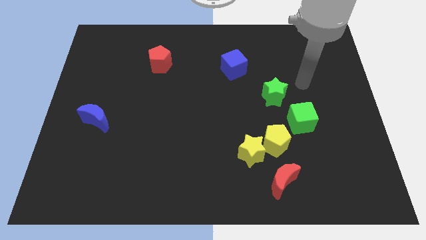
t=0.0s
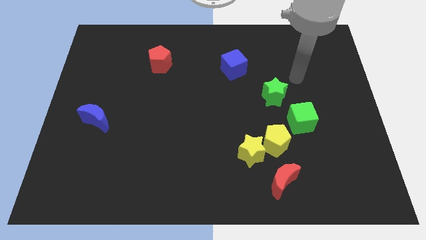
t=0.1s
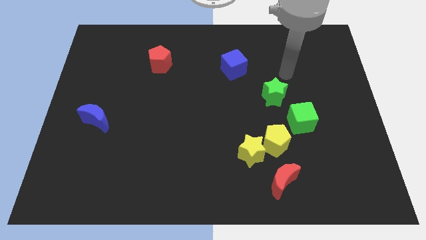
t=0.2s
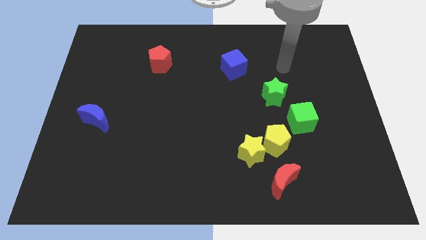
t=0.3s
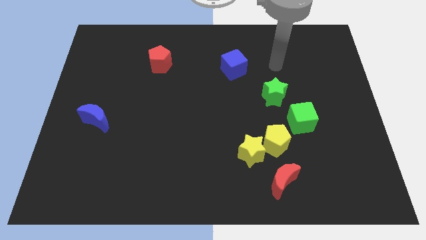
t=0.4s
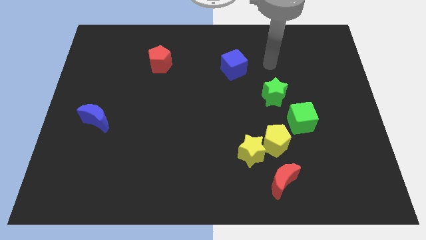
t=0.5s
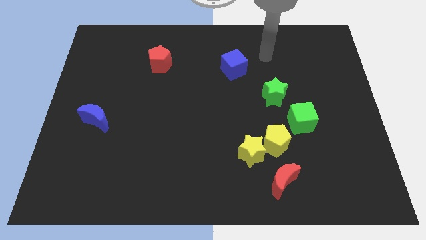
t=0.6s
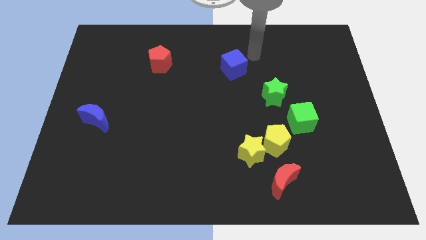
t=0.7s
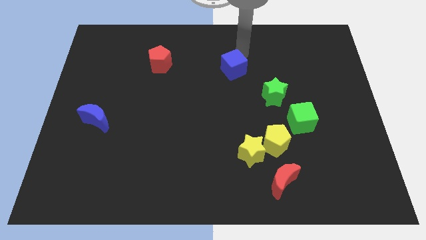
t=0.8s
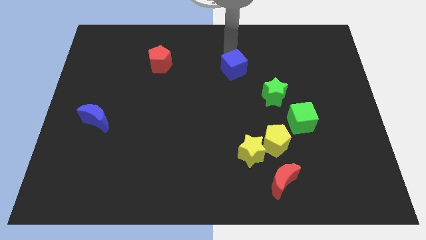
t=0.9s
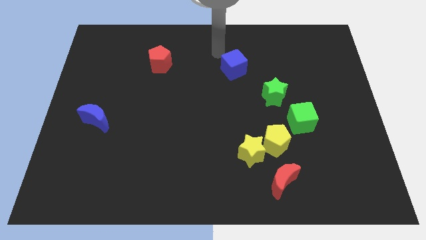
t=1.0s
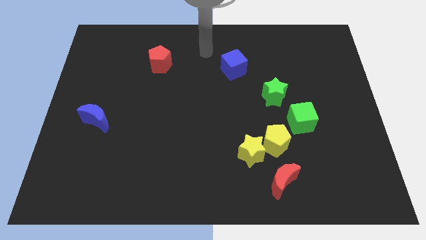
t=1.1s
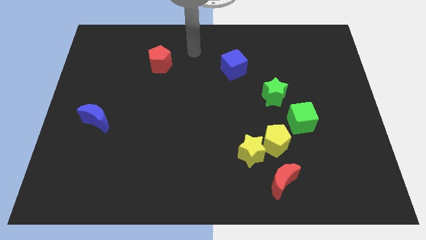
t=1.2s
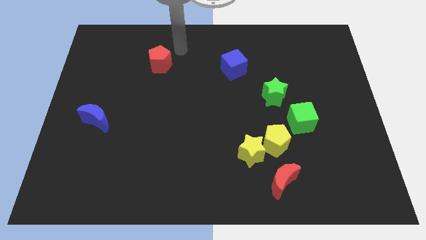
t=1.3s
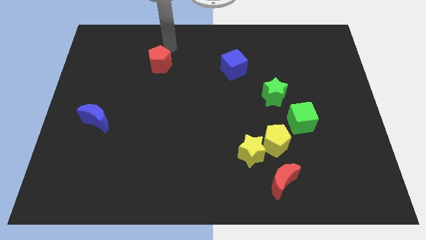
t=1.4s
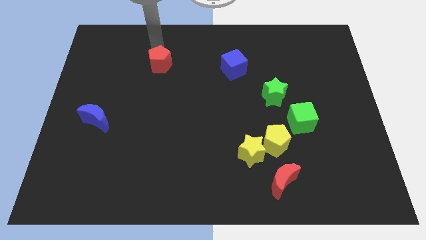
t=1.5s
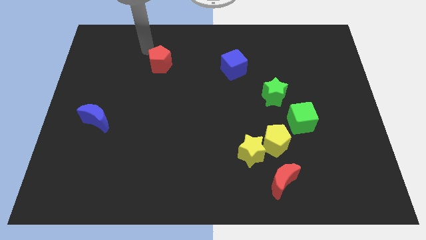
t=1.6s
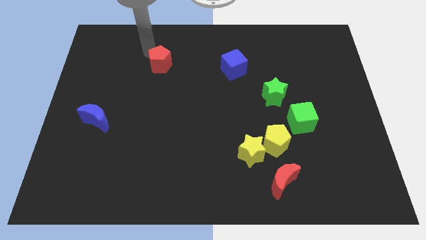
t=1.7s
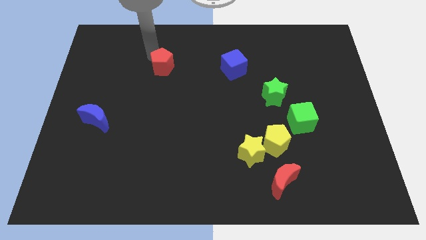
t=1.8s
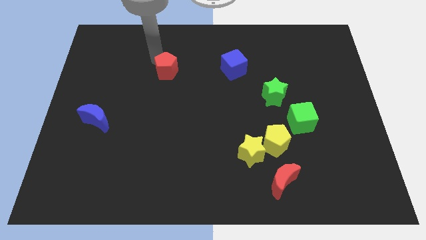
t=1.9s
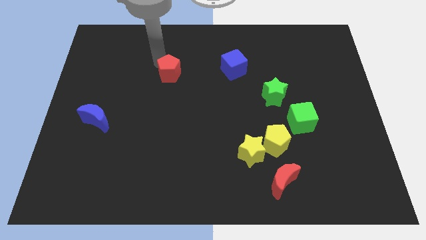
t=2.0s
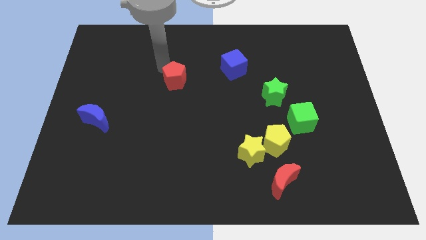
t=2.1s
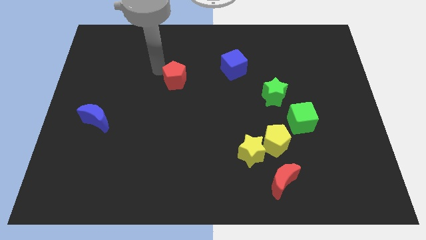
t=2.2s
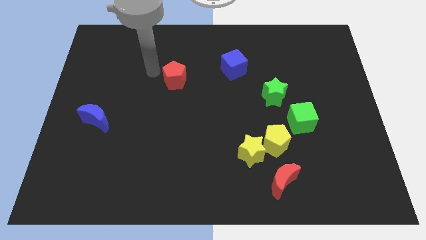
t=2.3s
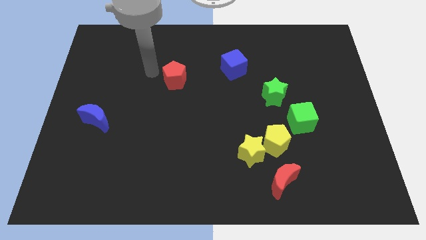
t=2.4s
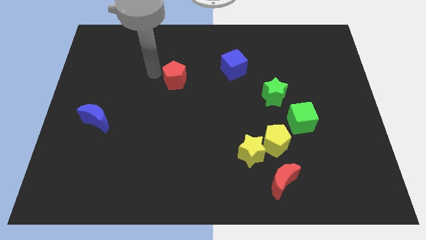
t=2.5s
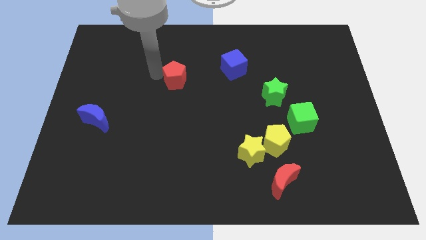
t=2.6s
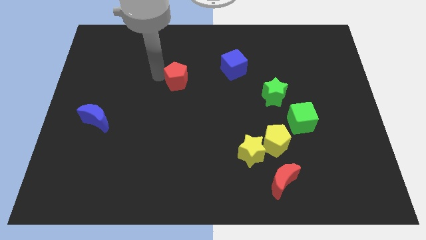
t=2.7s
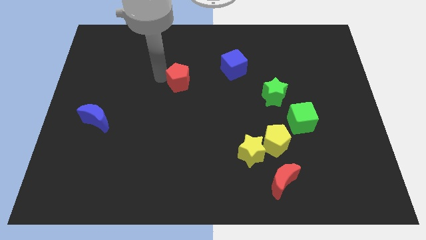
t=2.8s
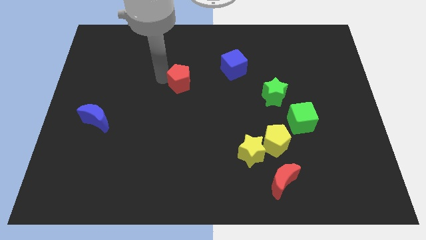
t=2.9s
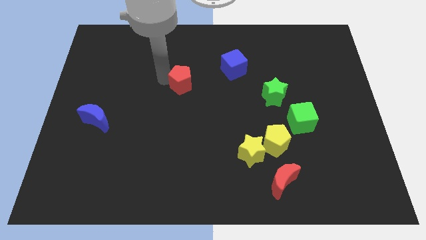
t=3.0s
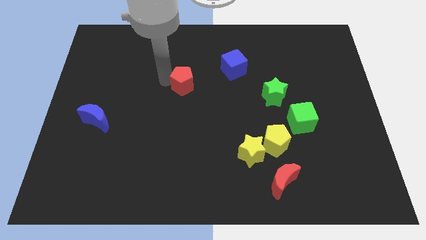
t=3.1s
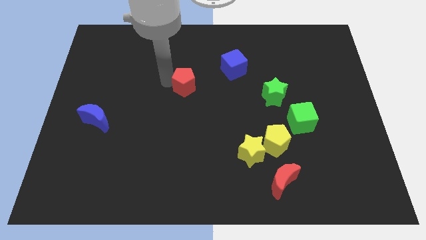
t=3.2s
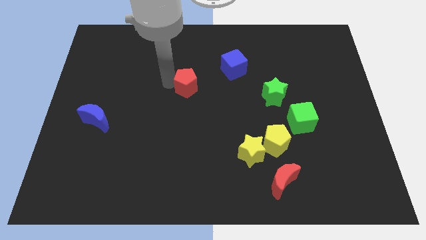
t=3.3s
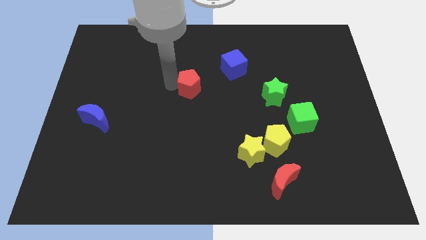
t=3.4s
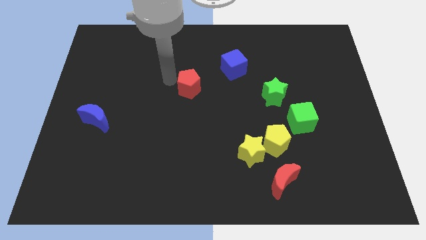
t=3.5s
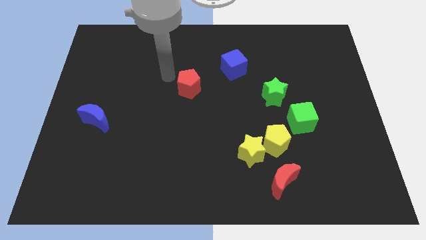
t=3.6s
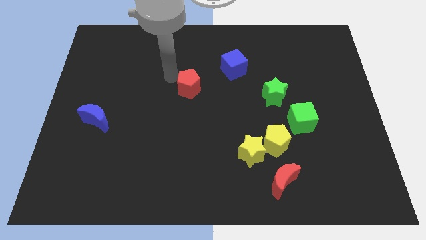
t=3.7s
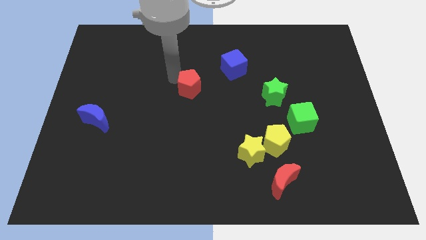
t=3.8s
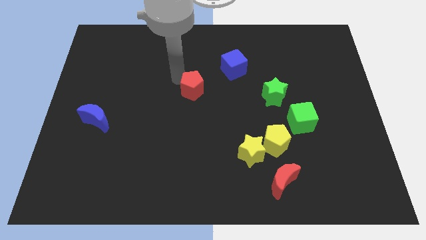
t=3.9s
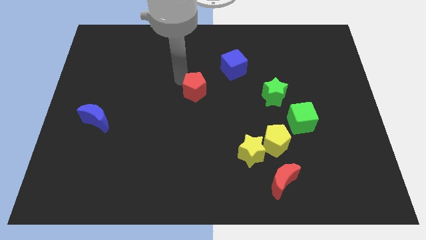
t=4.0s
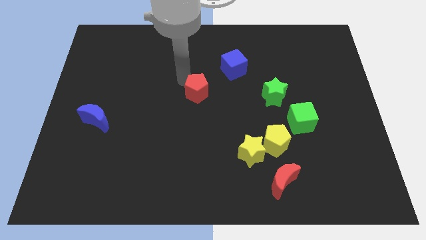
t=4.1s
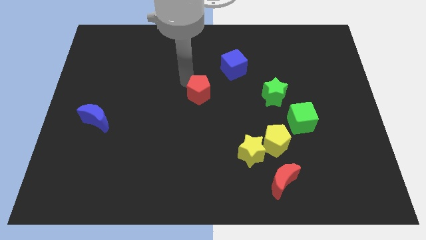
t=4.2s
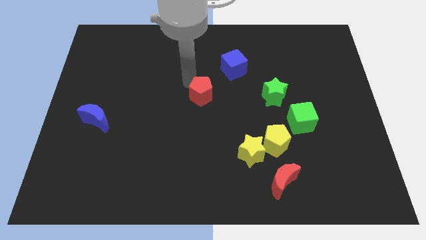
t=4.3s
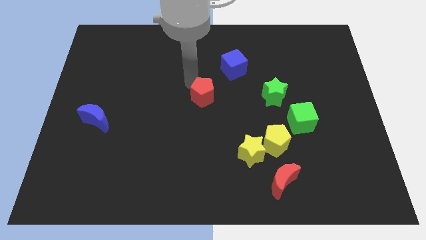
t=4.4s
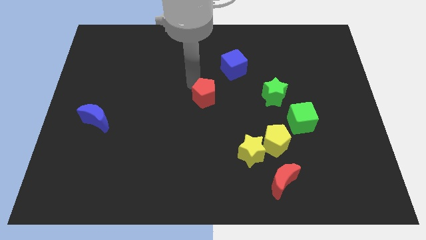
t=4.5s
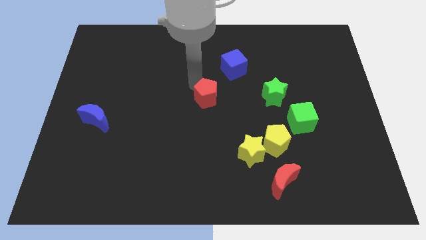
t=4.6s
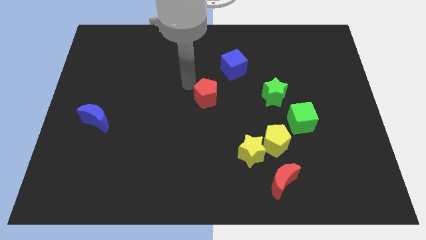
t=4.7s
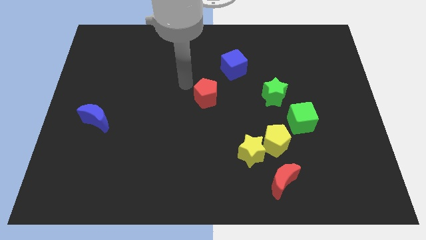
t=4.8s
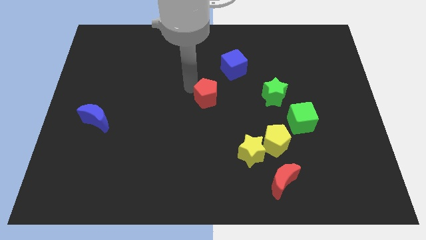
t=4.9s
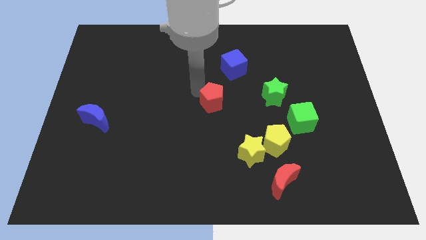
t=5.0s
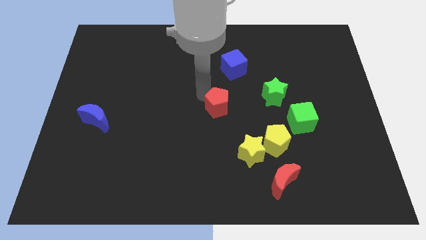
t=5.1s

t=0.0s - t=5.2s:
move the red pentagon down and right

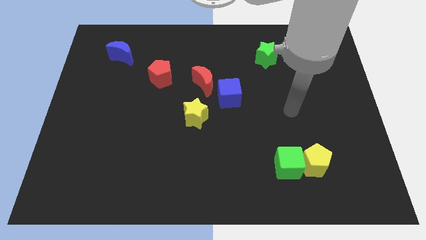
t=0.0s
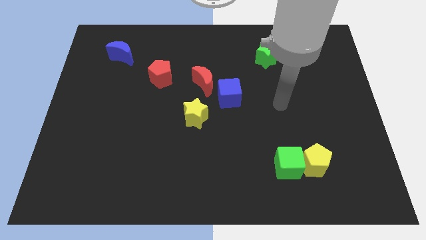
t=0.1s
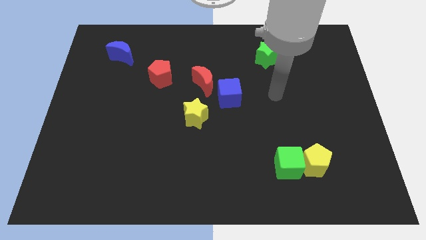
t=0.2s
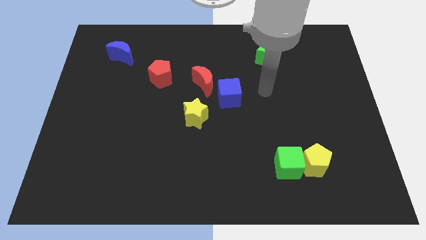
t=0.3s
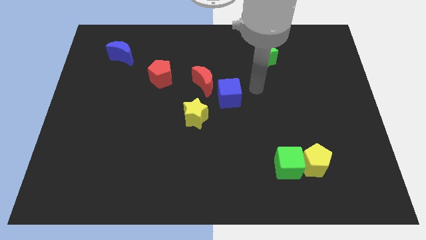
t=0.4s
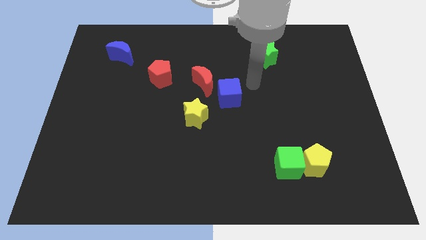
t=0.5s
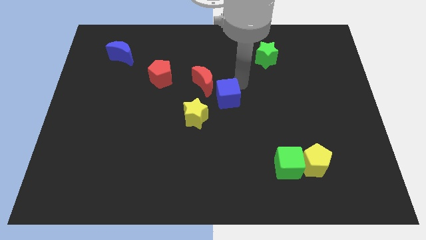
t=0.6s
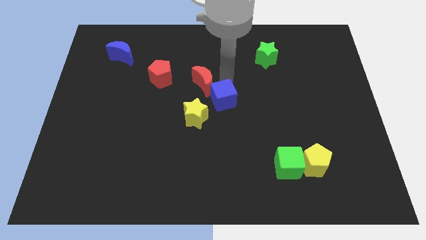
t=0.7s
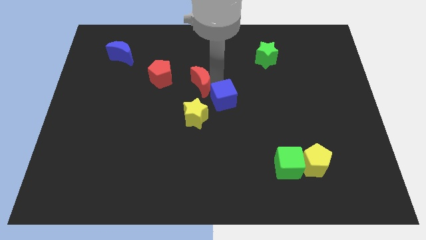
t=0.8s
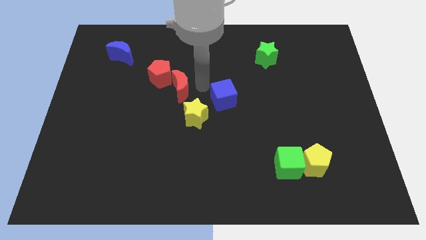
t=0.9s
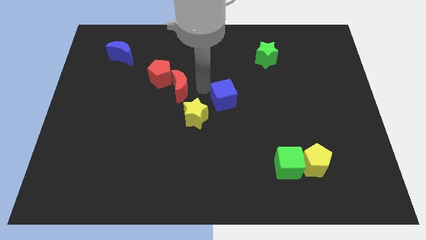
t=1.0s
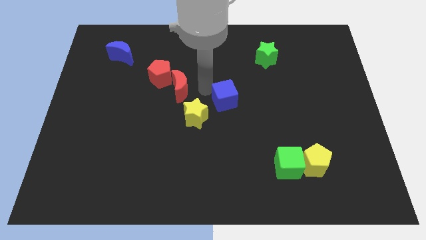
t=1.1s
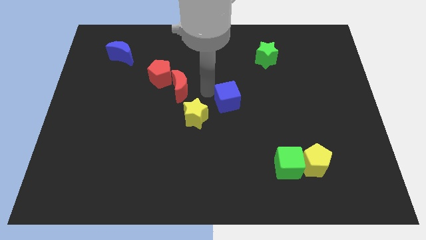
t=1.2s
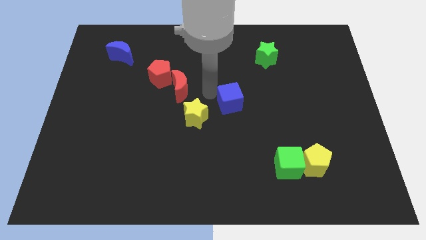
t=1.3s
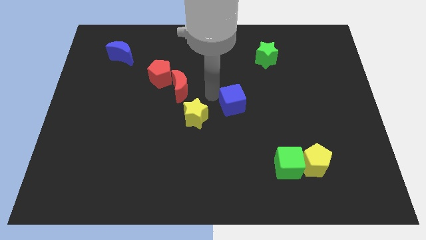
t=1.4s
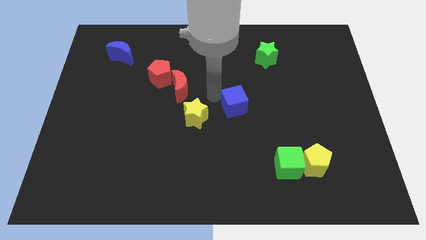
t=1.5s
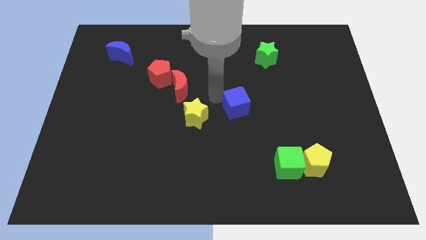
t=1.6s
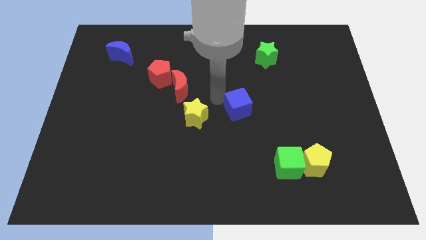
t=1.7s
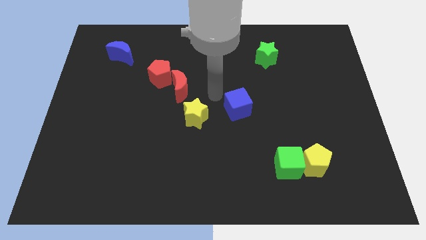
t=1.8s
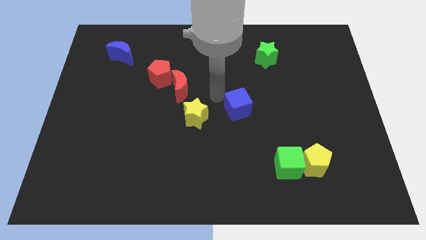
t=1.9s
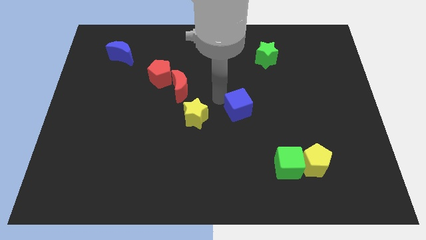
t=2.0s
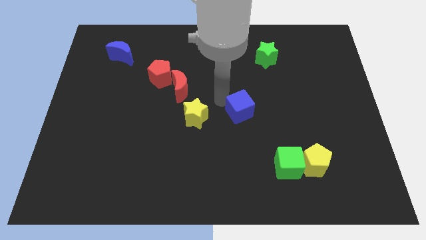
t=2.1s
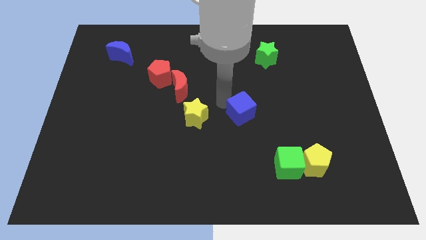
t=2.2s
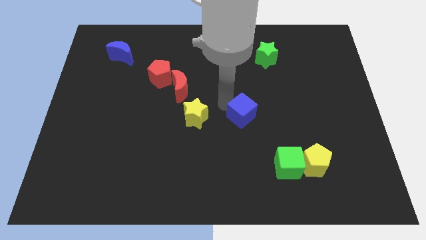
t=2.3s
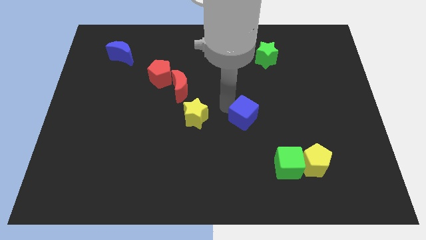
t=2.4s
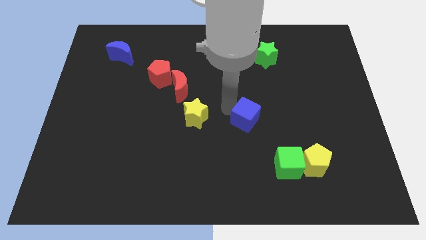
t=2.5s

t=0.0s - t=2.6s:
slightly slide the blue cube downwards and to the right

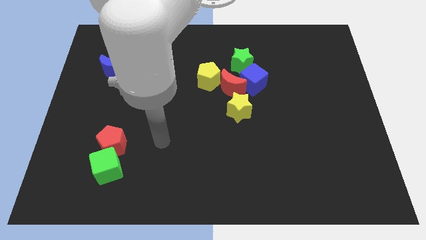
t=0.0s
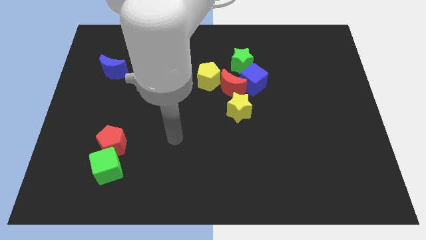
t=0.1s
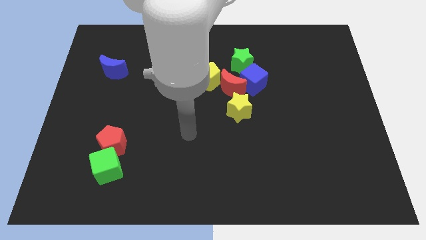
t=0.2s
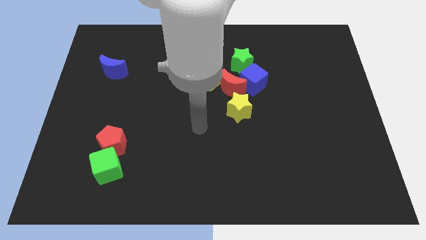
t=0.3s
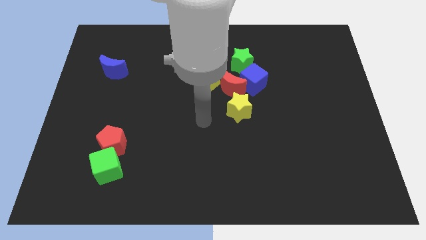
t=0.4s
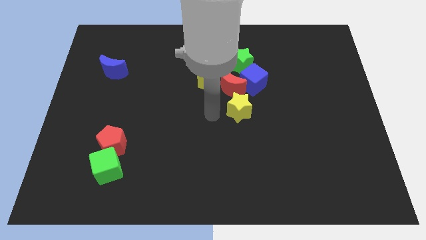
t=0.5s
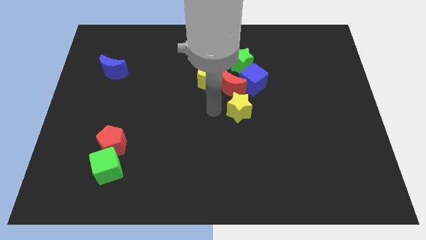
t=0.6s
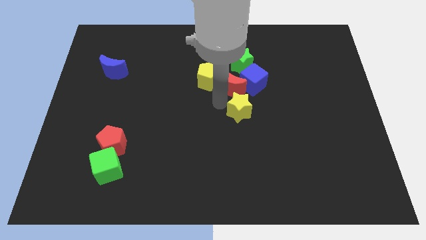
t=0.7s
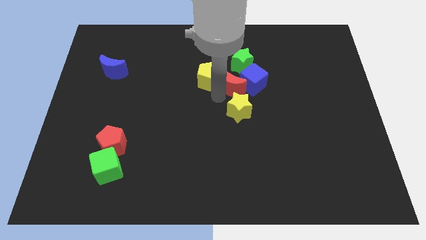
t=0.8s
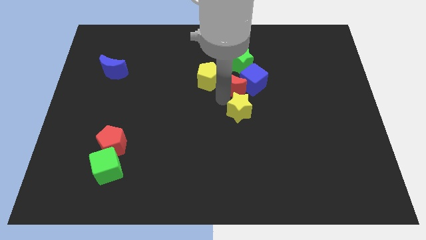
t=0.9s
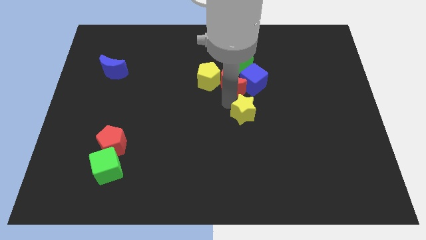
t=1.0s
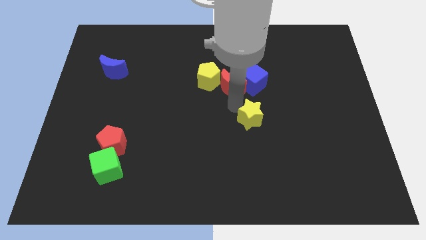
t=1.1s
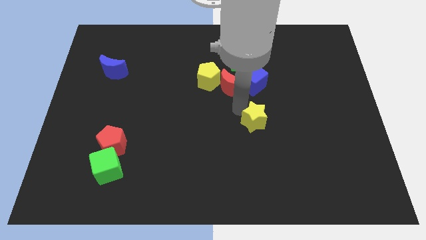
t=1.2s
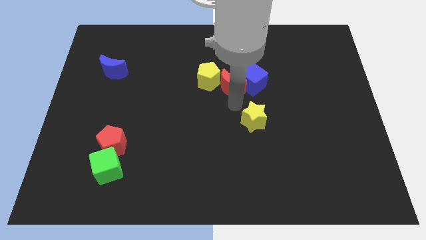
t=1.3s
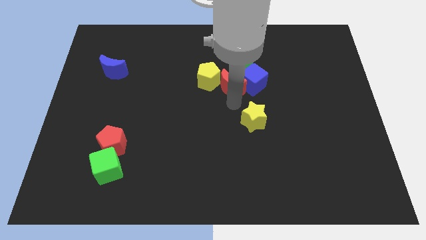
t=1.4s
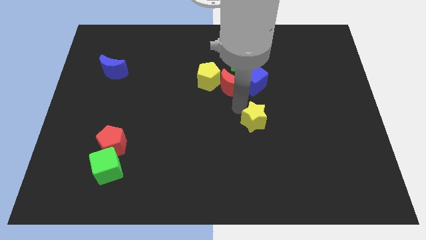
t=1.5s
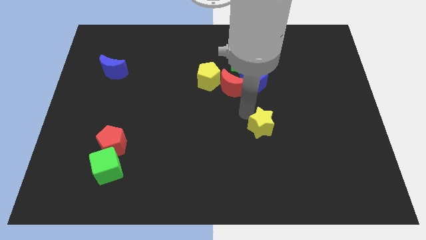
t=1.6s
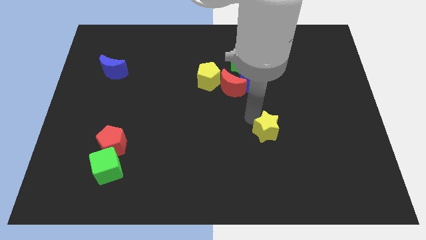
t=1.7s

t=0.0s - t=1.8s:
slide the yellow star a bit downwards and then to the right
